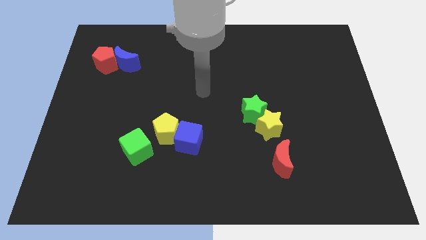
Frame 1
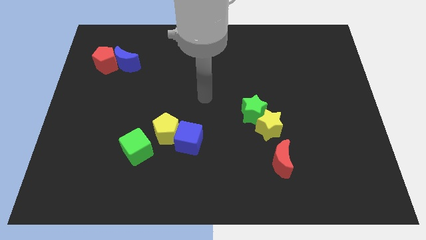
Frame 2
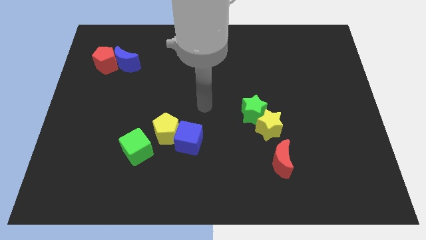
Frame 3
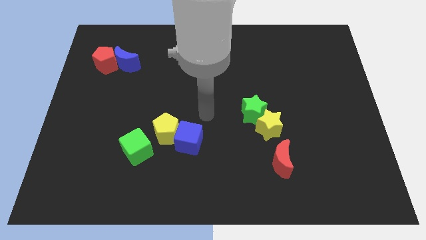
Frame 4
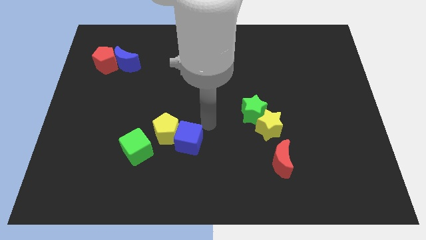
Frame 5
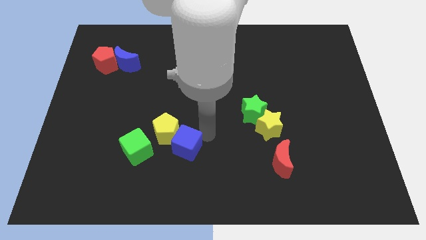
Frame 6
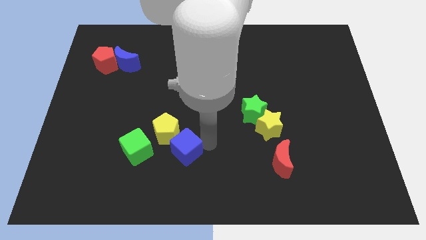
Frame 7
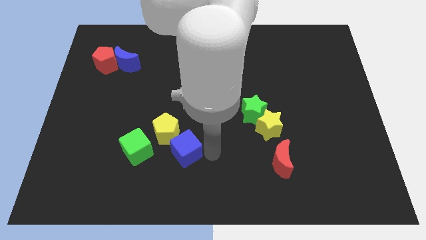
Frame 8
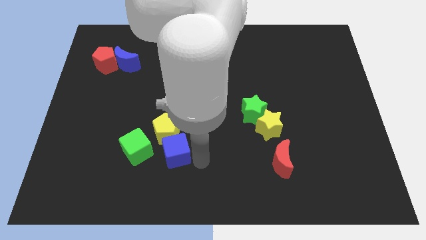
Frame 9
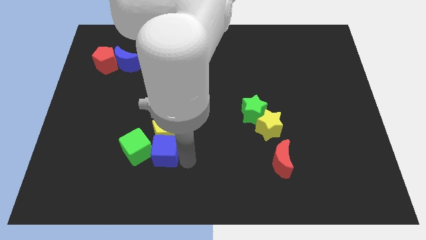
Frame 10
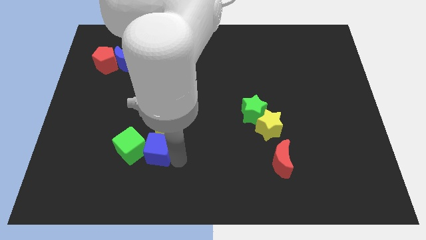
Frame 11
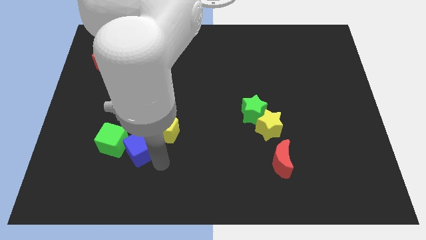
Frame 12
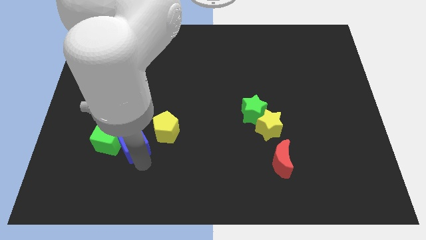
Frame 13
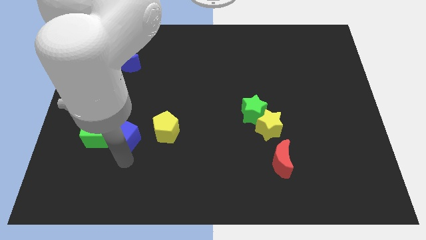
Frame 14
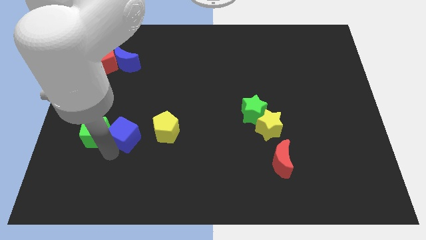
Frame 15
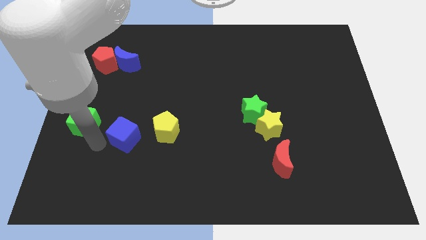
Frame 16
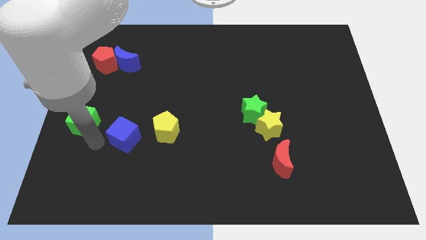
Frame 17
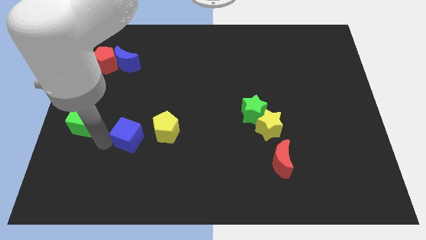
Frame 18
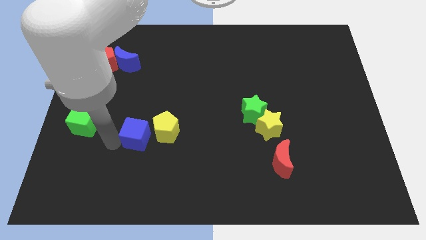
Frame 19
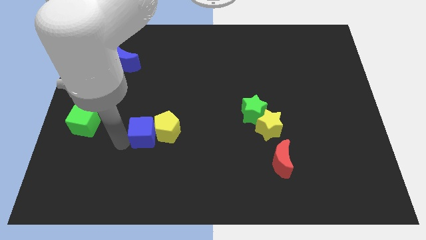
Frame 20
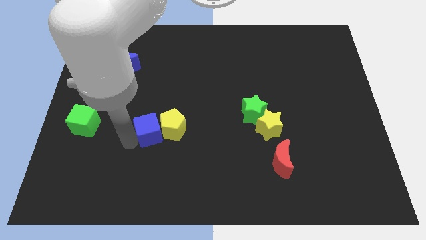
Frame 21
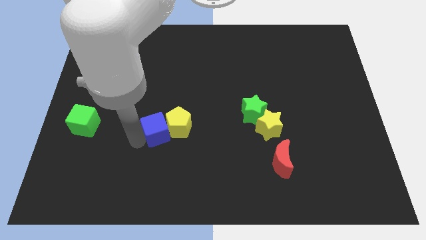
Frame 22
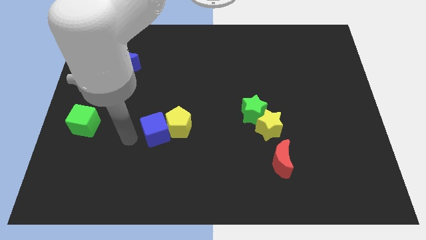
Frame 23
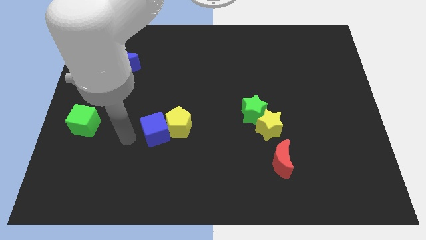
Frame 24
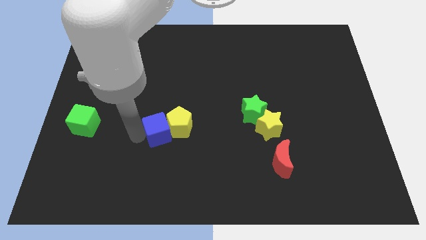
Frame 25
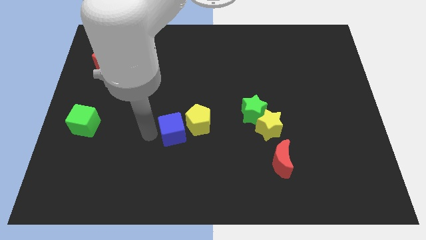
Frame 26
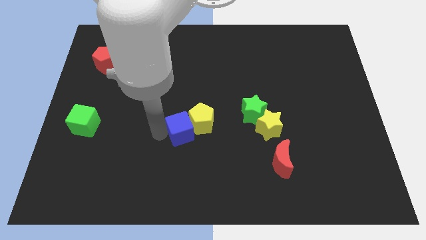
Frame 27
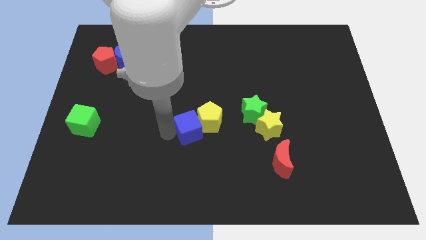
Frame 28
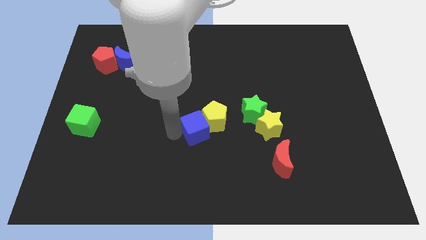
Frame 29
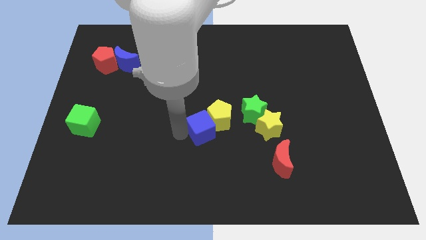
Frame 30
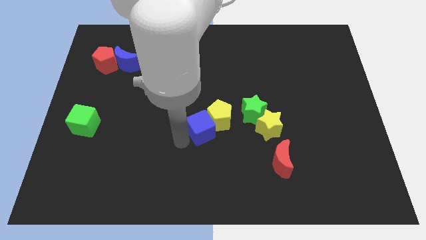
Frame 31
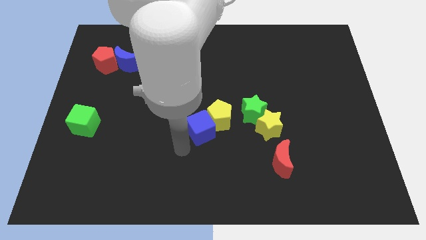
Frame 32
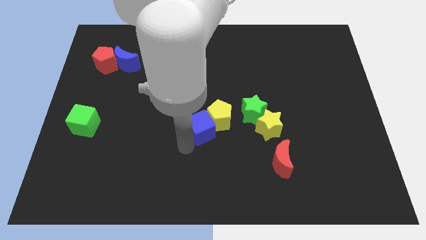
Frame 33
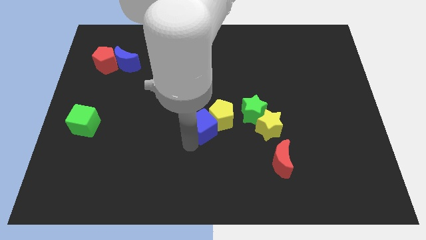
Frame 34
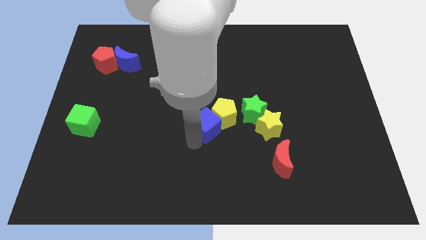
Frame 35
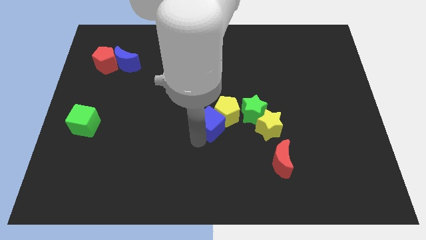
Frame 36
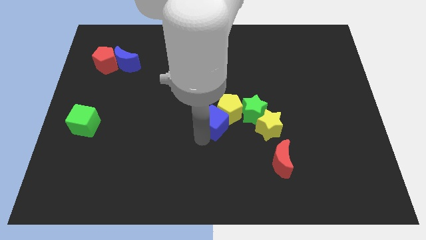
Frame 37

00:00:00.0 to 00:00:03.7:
slightly push the blue cube diagonally upwards and to the right

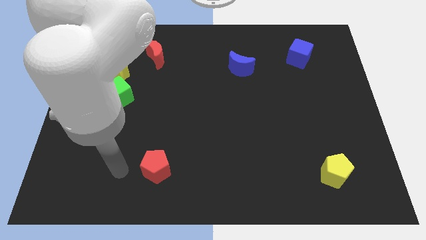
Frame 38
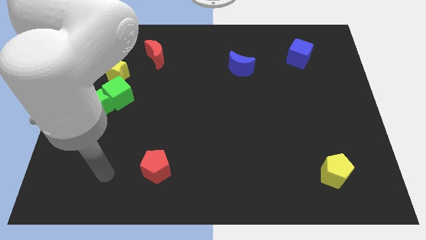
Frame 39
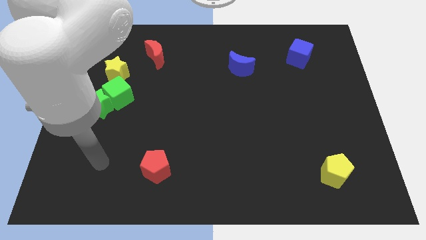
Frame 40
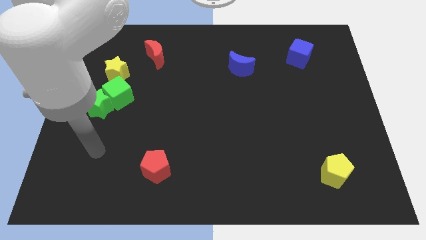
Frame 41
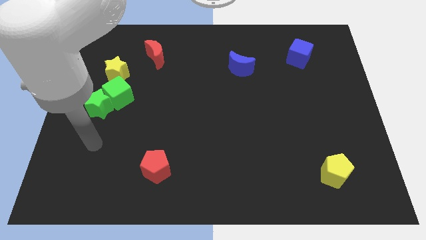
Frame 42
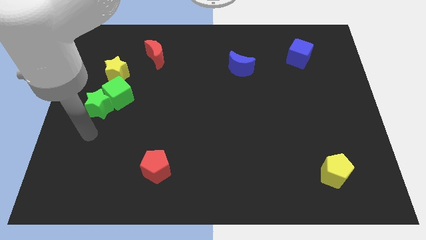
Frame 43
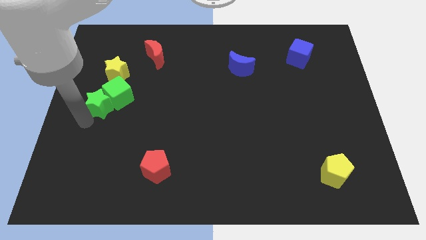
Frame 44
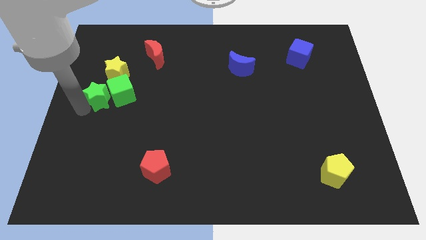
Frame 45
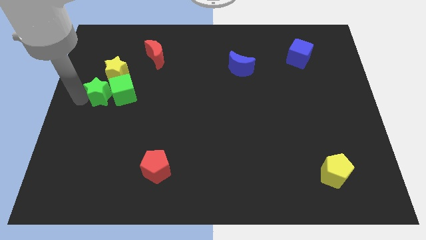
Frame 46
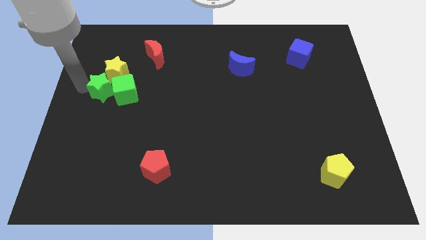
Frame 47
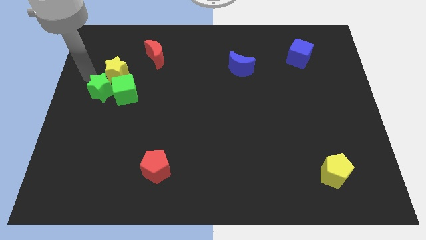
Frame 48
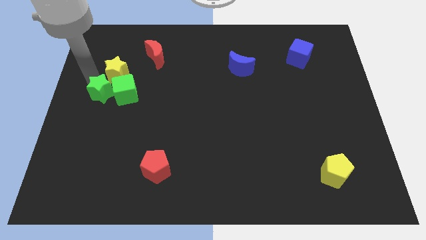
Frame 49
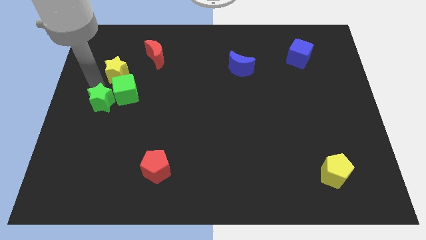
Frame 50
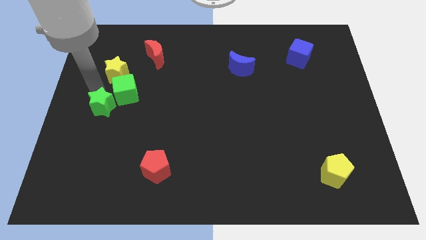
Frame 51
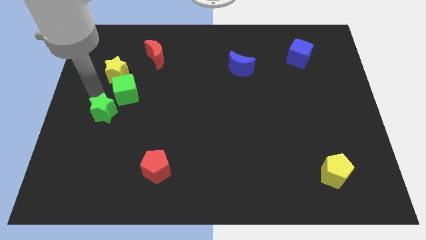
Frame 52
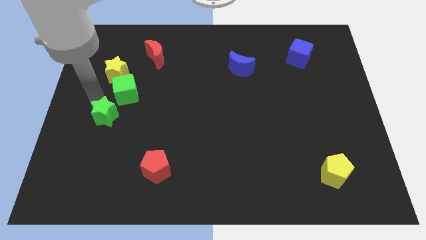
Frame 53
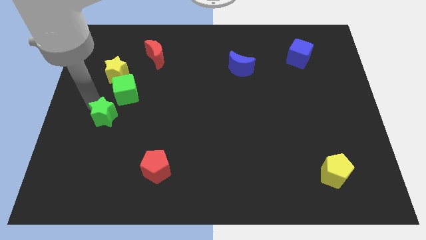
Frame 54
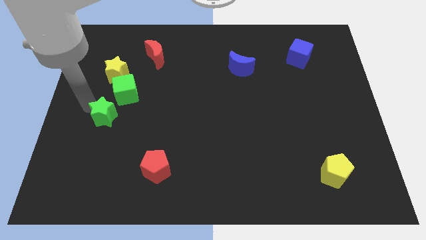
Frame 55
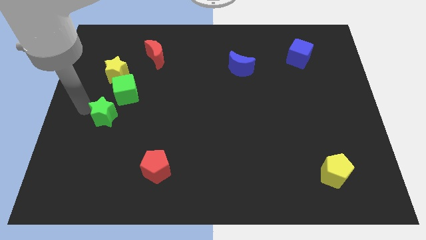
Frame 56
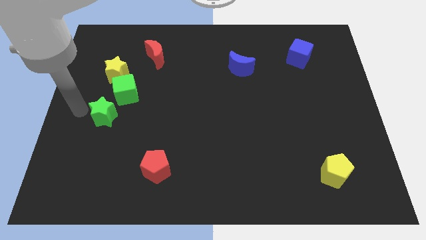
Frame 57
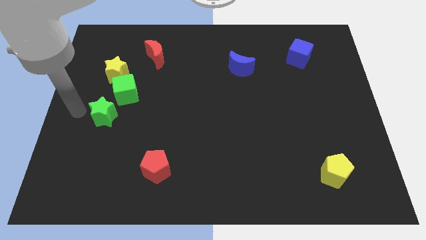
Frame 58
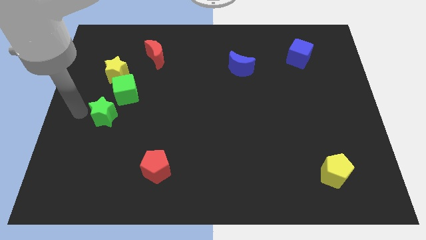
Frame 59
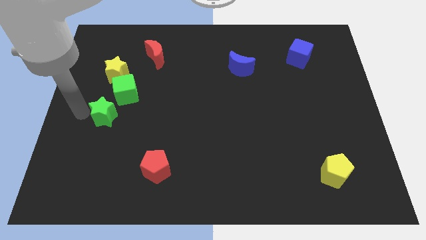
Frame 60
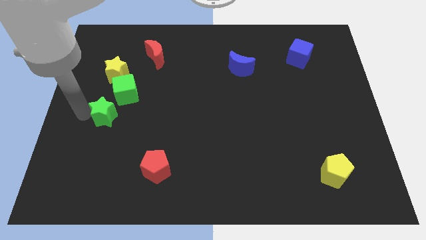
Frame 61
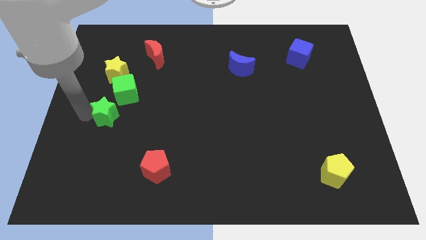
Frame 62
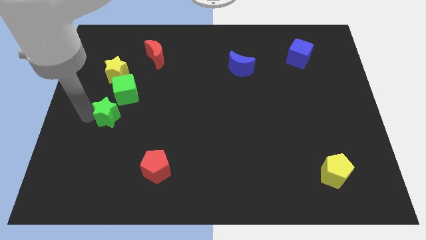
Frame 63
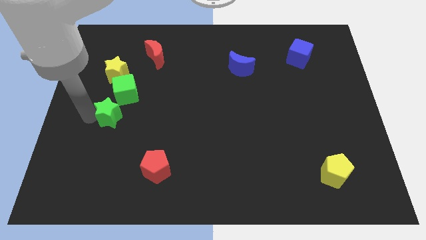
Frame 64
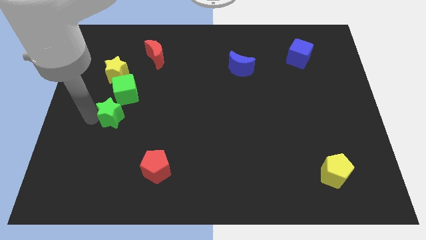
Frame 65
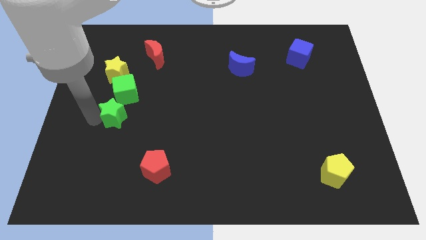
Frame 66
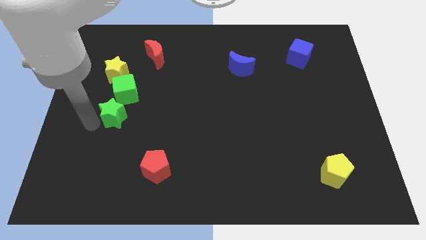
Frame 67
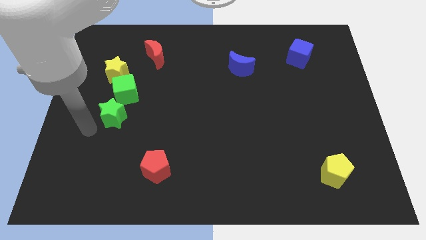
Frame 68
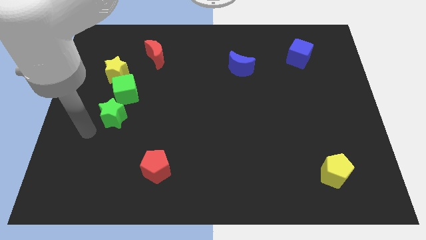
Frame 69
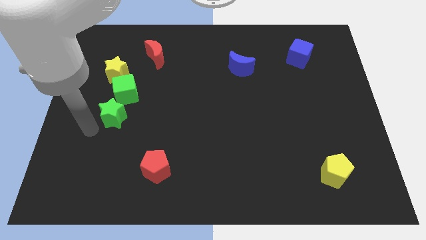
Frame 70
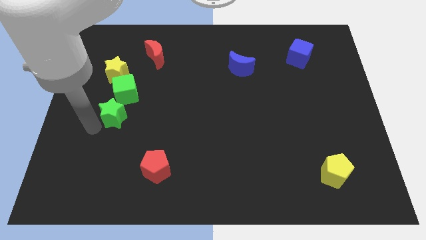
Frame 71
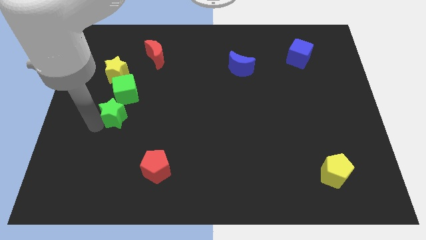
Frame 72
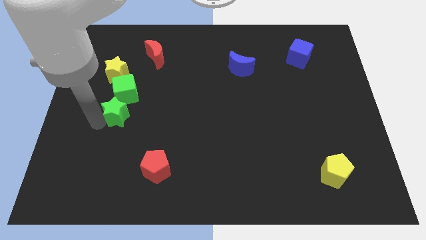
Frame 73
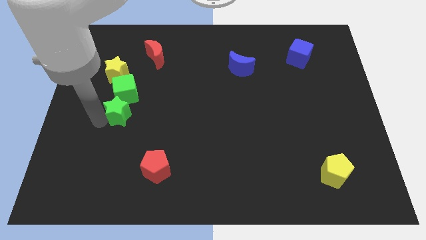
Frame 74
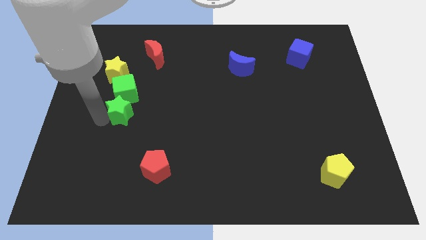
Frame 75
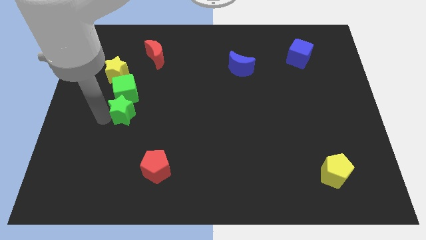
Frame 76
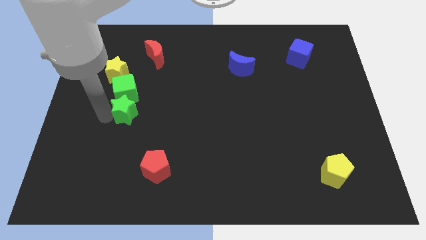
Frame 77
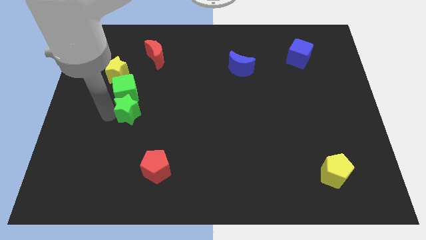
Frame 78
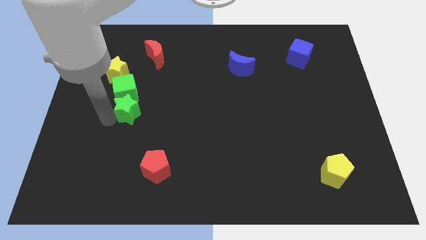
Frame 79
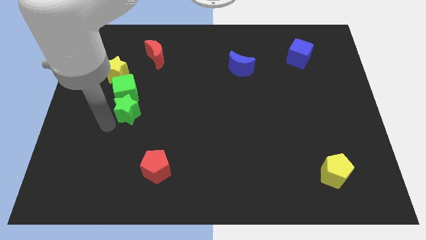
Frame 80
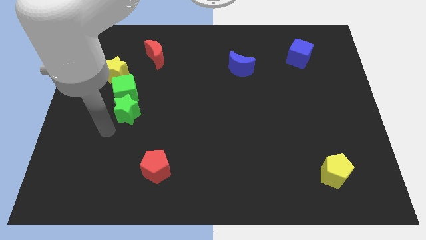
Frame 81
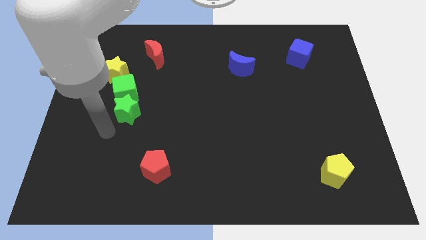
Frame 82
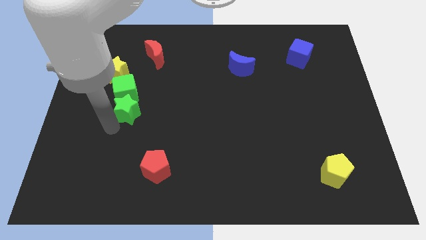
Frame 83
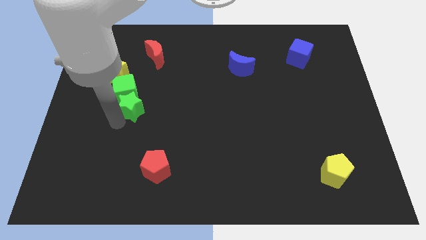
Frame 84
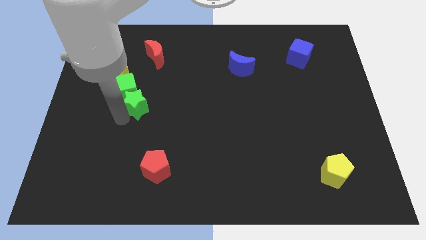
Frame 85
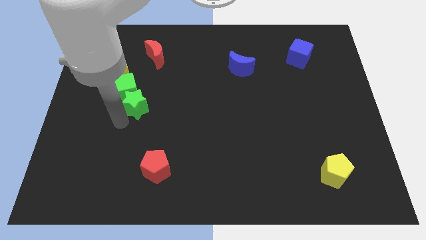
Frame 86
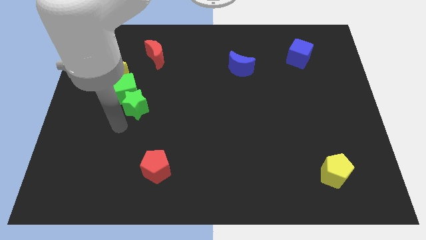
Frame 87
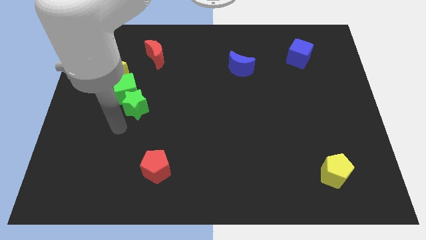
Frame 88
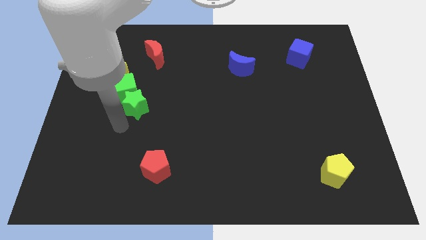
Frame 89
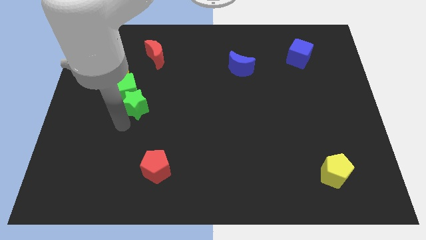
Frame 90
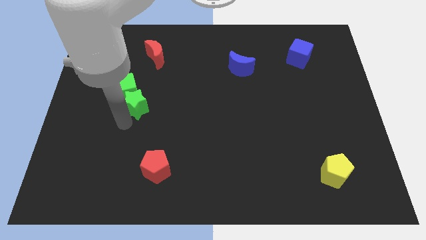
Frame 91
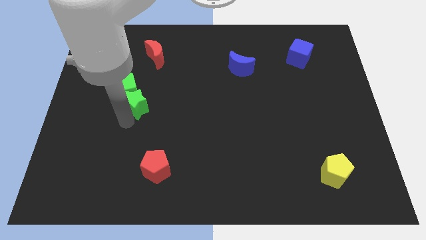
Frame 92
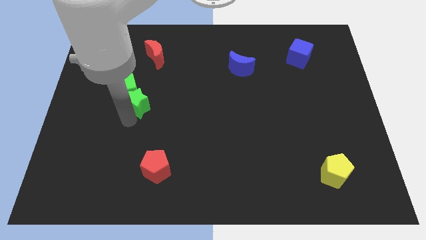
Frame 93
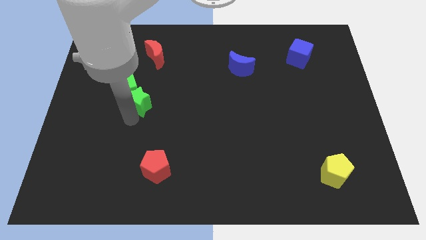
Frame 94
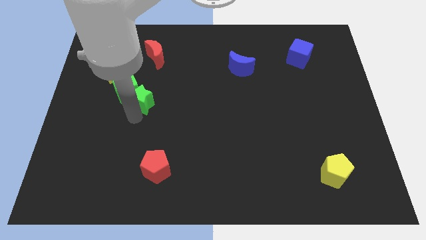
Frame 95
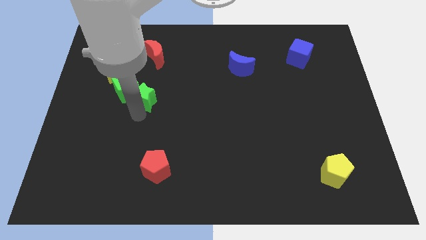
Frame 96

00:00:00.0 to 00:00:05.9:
push the green star diagonally up and to the right a bit
